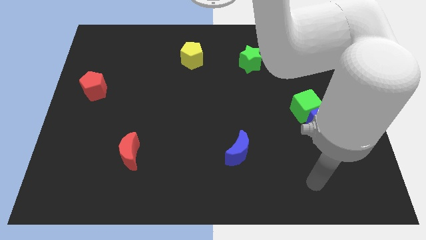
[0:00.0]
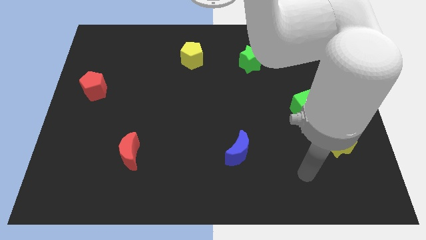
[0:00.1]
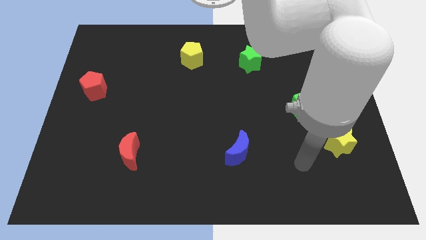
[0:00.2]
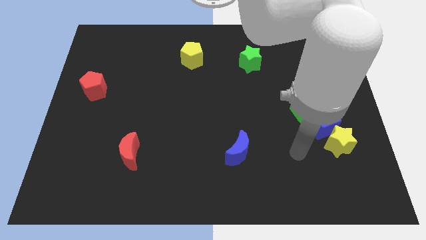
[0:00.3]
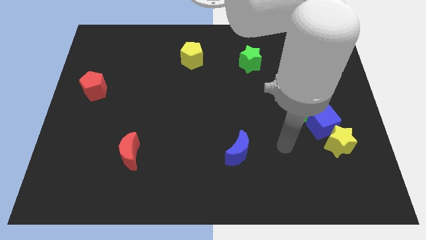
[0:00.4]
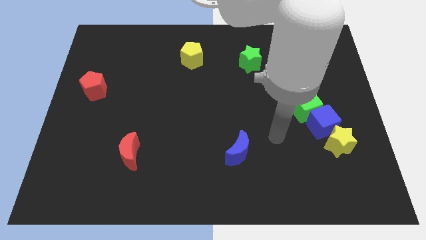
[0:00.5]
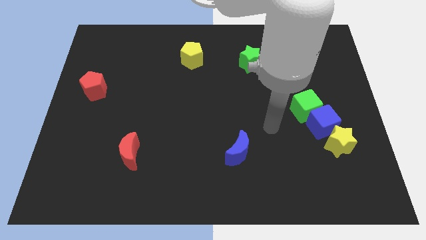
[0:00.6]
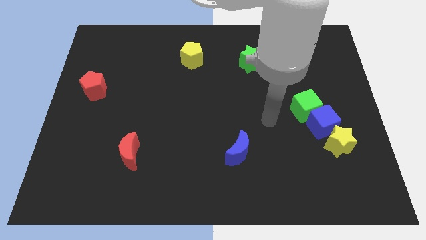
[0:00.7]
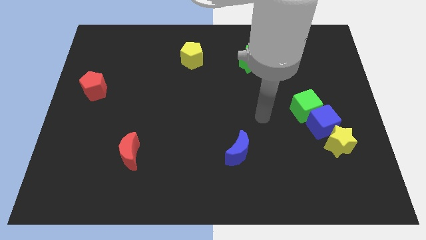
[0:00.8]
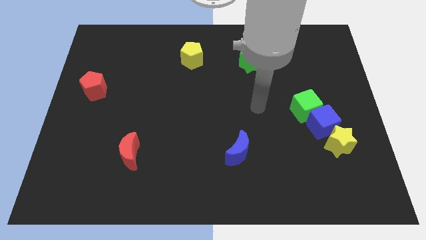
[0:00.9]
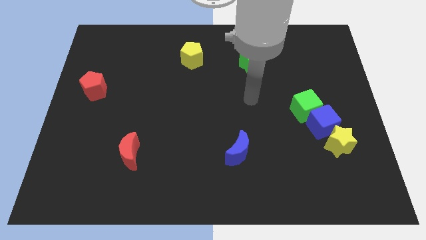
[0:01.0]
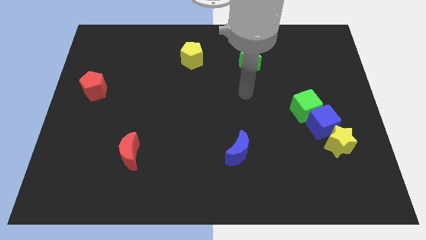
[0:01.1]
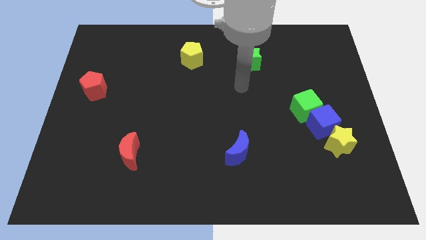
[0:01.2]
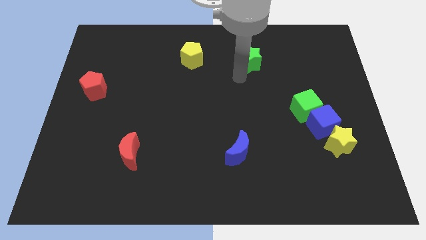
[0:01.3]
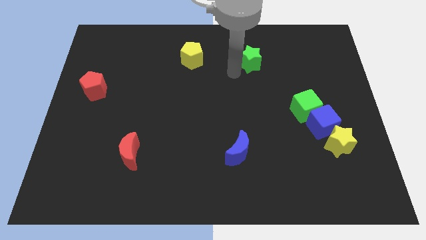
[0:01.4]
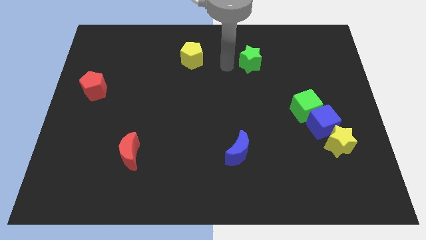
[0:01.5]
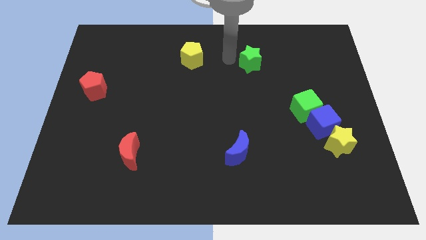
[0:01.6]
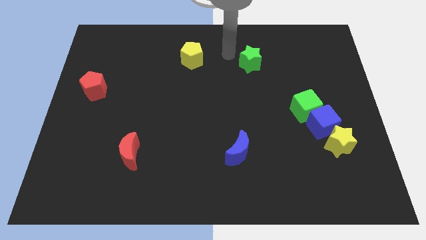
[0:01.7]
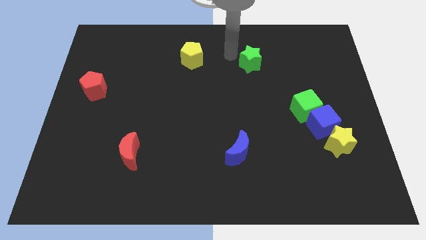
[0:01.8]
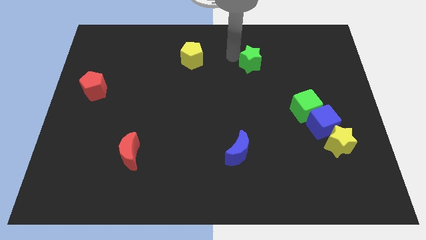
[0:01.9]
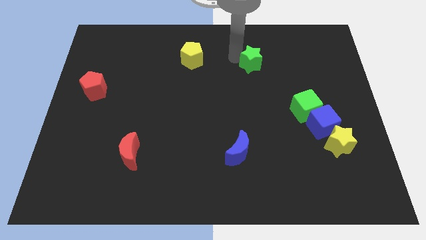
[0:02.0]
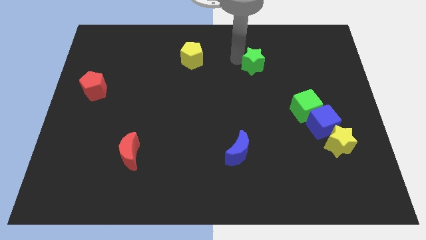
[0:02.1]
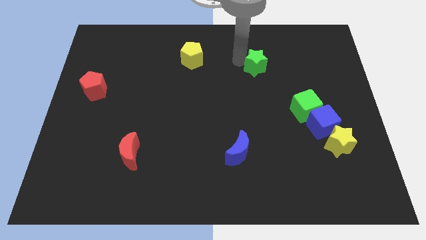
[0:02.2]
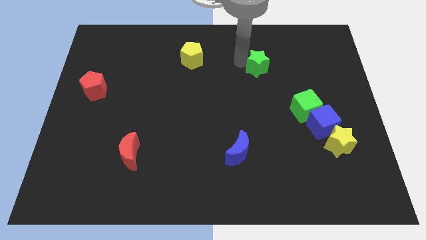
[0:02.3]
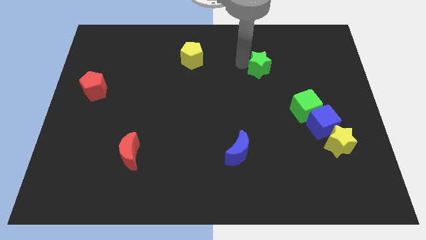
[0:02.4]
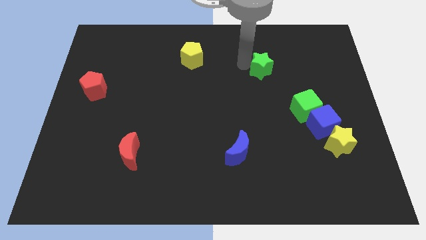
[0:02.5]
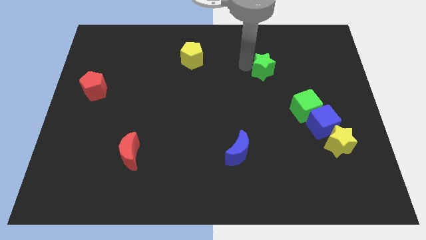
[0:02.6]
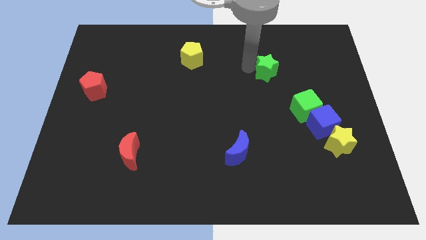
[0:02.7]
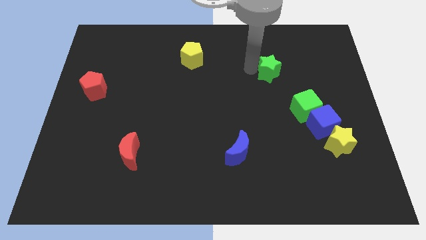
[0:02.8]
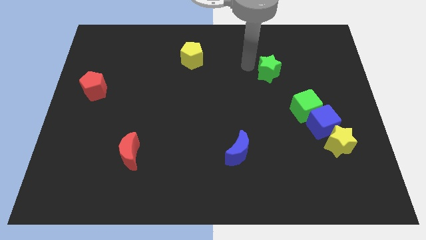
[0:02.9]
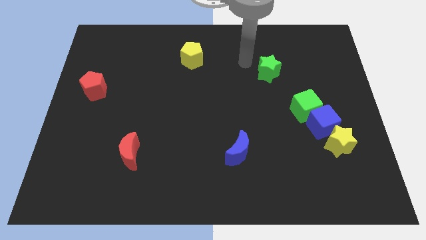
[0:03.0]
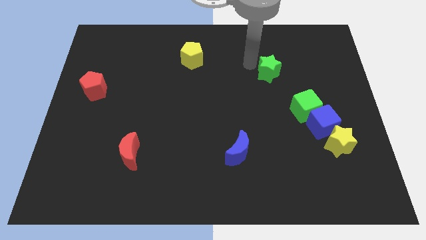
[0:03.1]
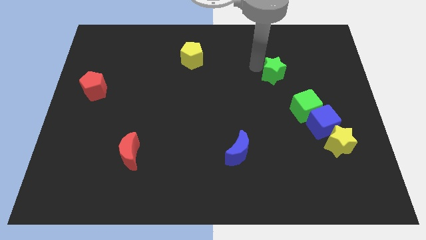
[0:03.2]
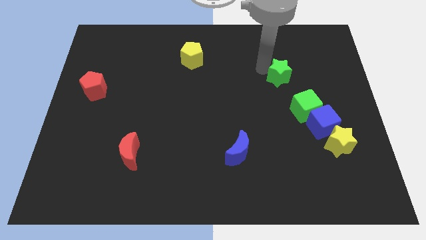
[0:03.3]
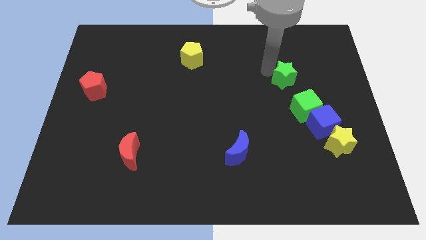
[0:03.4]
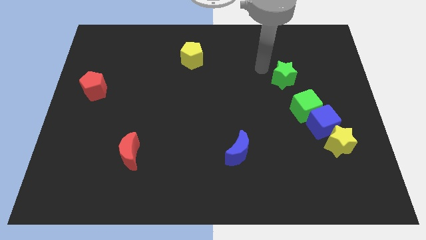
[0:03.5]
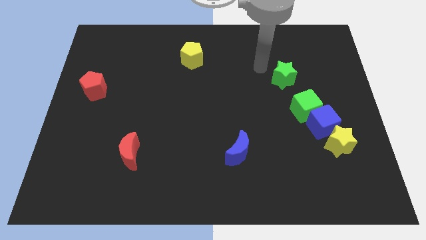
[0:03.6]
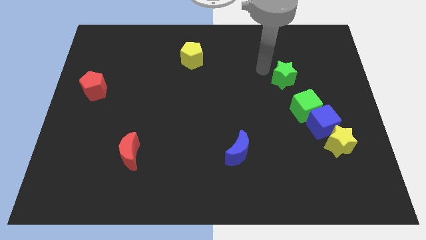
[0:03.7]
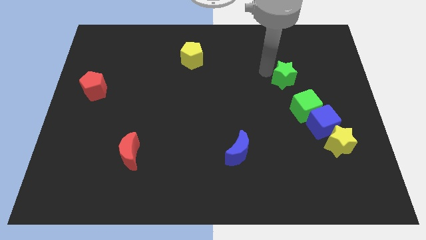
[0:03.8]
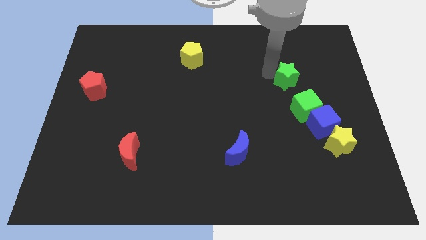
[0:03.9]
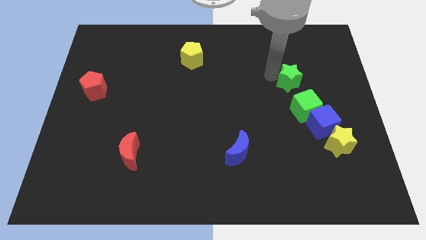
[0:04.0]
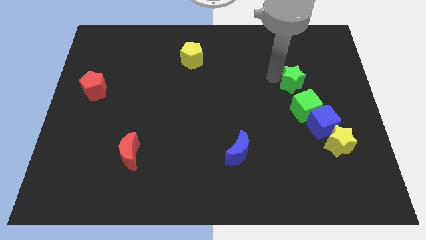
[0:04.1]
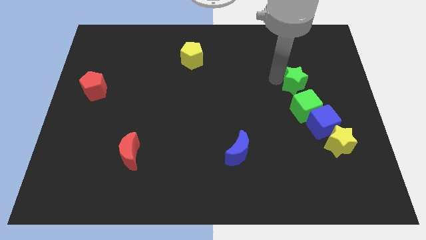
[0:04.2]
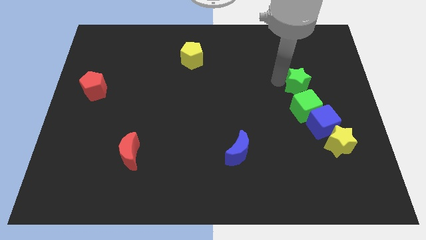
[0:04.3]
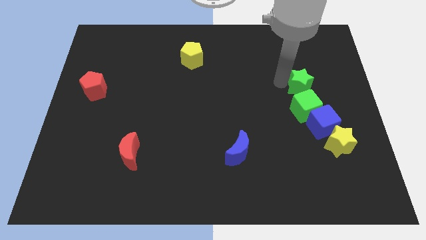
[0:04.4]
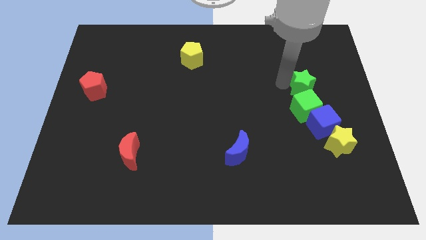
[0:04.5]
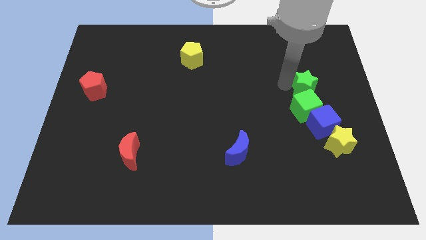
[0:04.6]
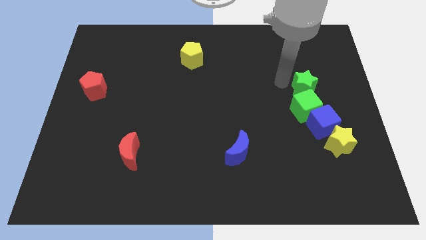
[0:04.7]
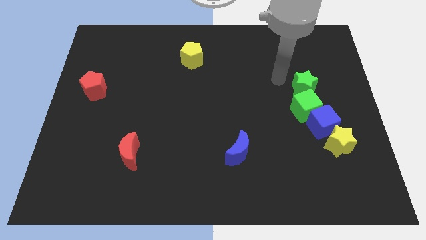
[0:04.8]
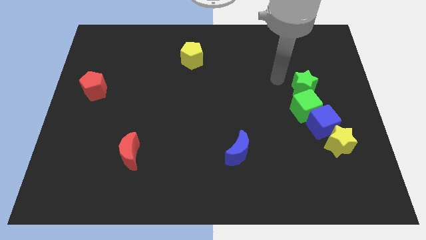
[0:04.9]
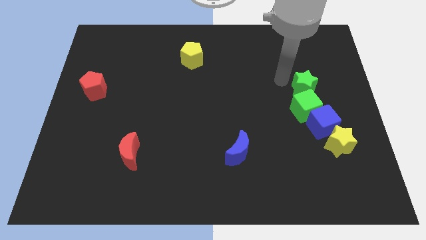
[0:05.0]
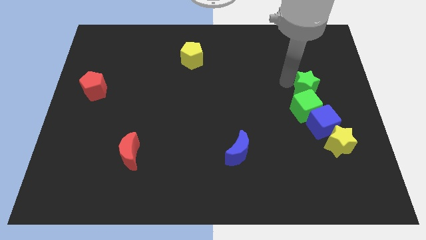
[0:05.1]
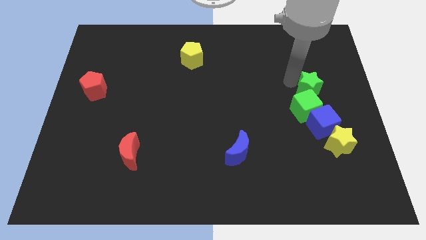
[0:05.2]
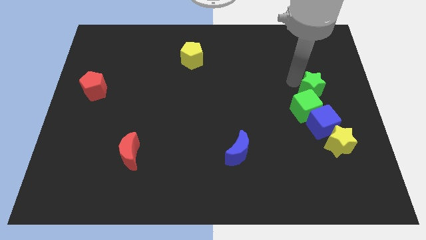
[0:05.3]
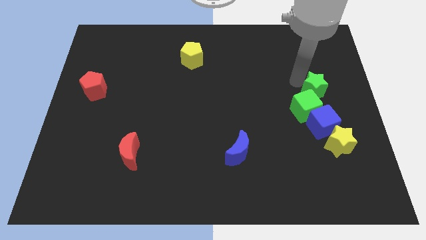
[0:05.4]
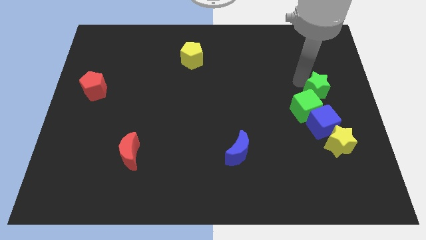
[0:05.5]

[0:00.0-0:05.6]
slide the green star to the top of the yellow star

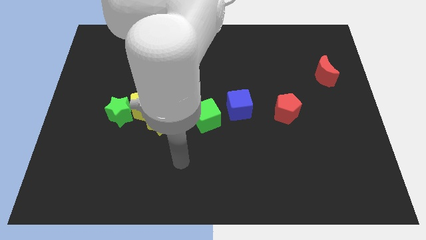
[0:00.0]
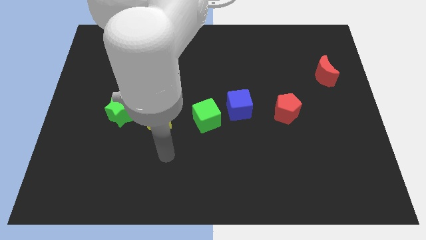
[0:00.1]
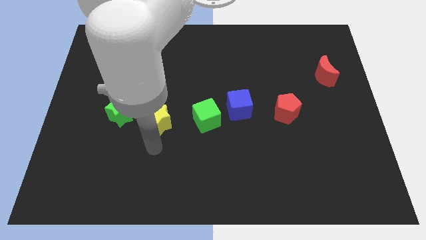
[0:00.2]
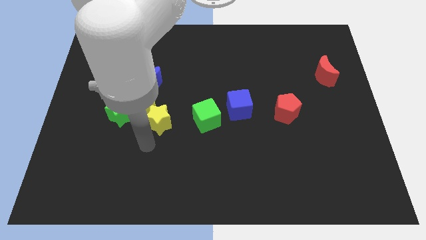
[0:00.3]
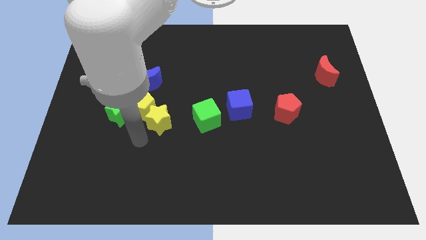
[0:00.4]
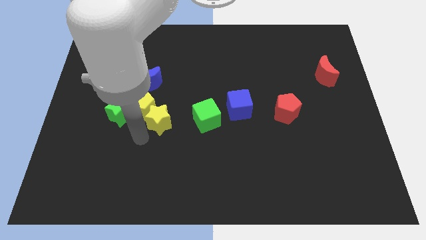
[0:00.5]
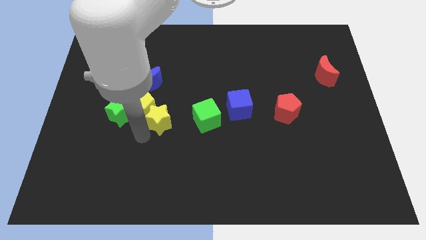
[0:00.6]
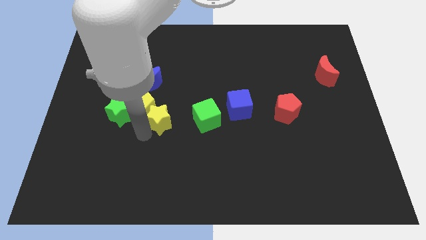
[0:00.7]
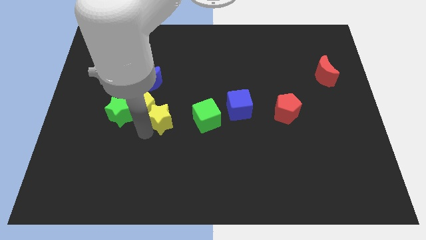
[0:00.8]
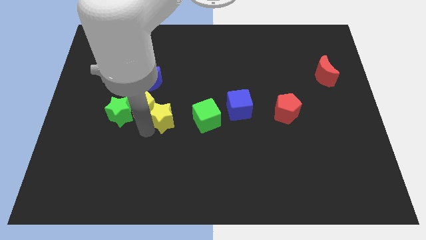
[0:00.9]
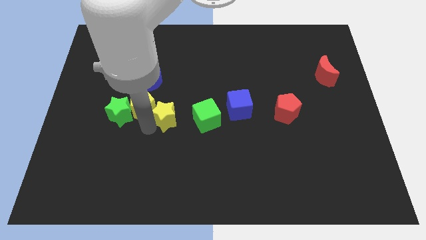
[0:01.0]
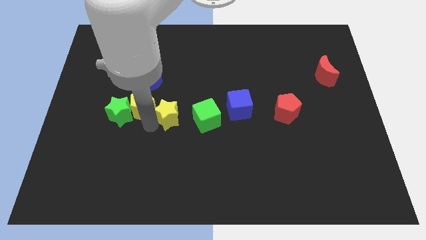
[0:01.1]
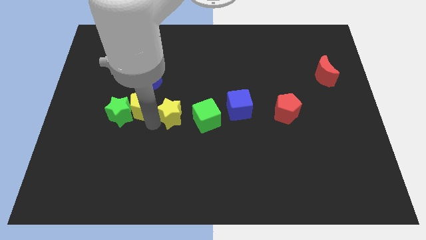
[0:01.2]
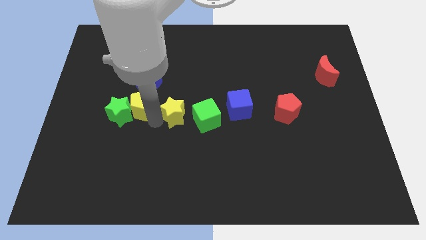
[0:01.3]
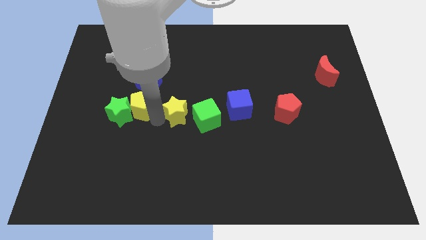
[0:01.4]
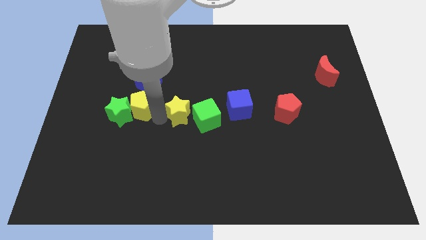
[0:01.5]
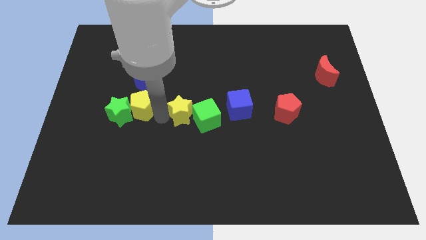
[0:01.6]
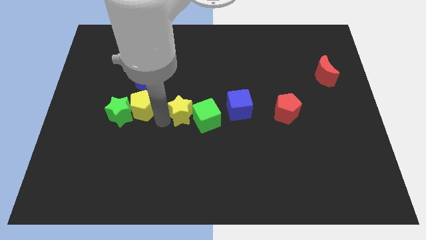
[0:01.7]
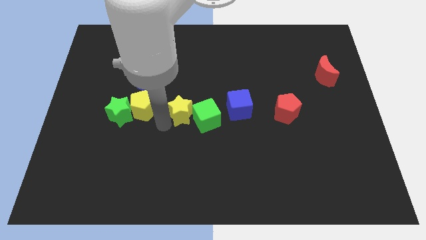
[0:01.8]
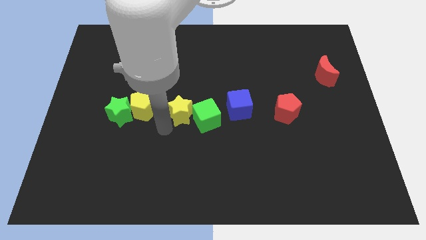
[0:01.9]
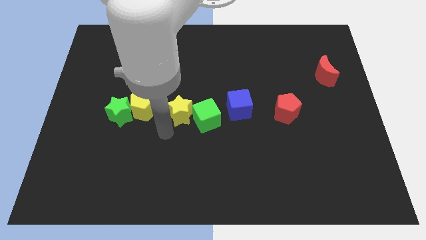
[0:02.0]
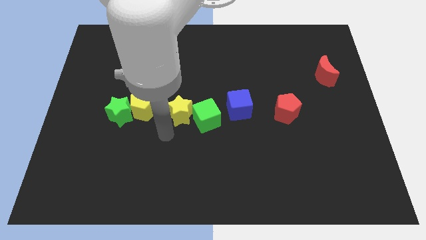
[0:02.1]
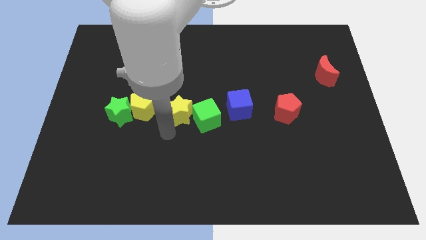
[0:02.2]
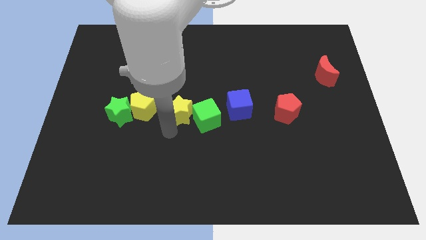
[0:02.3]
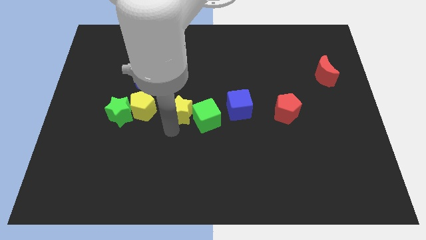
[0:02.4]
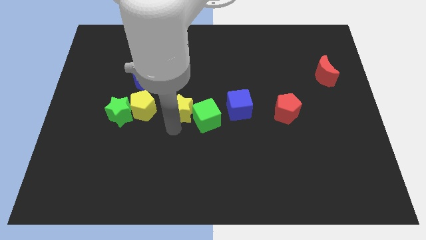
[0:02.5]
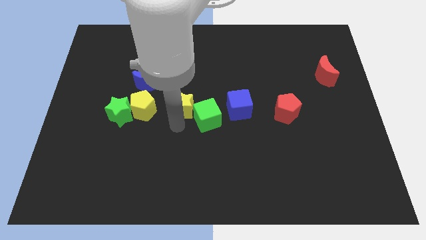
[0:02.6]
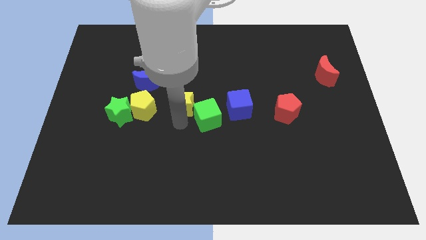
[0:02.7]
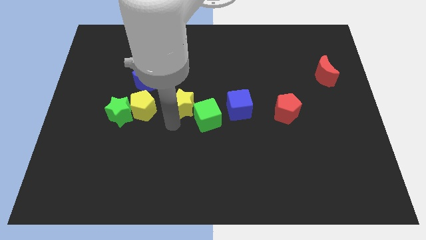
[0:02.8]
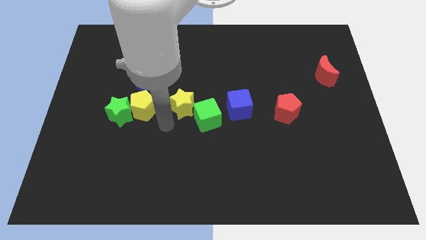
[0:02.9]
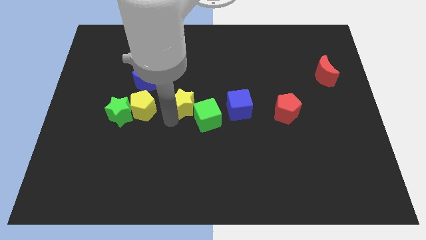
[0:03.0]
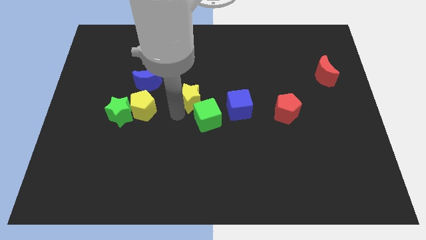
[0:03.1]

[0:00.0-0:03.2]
put the yellow star to the top side of the green cube
